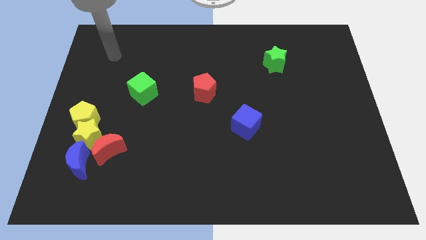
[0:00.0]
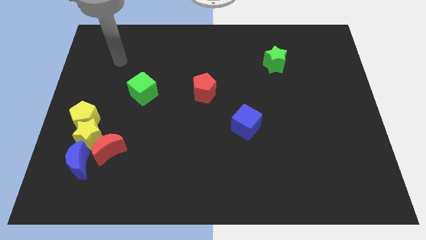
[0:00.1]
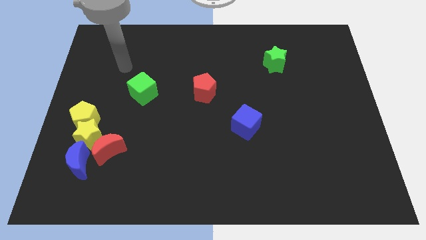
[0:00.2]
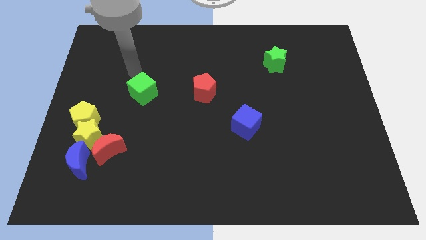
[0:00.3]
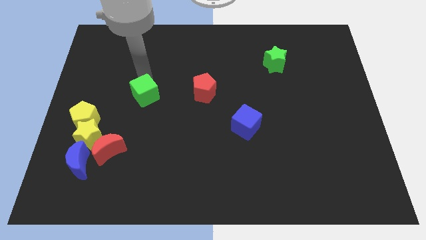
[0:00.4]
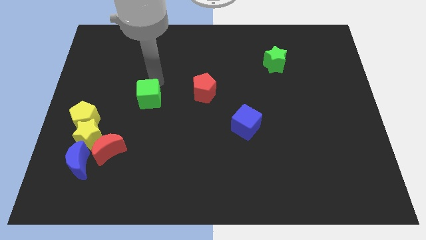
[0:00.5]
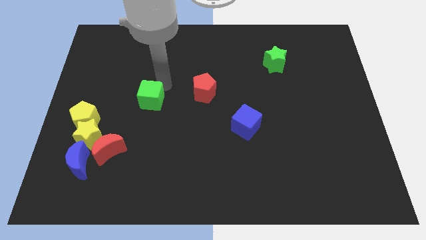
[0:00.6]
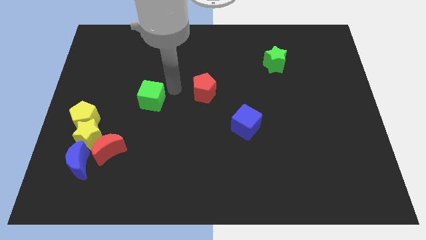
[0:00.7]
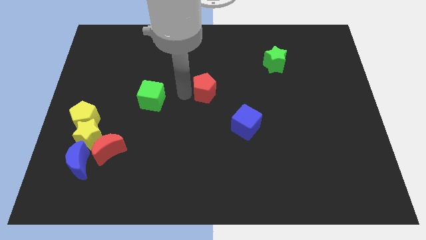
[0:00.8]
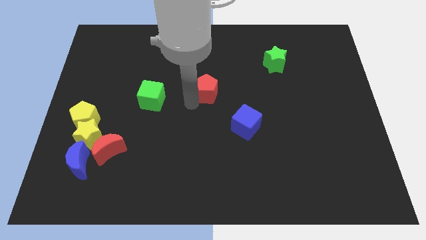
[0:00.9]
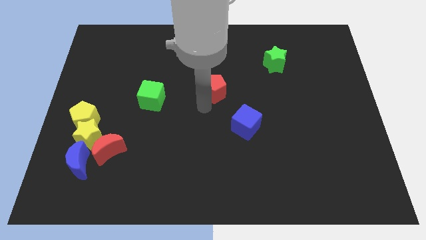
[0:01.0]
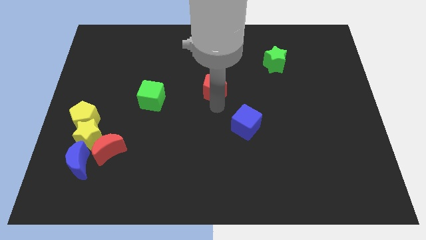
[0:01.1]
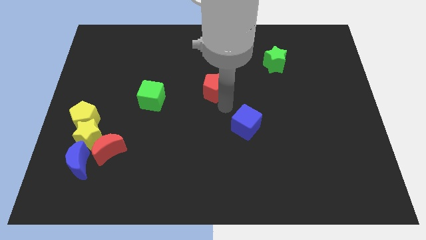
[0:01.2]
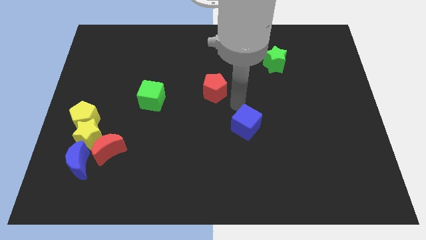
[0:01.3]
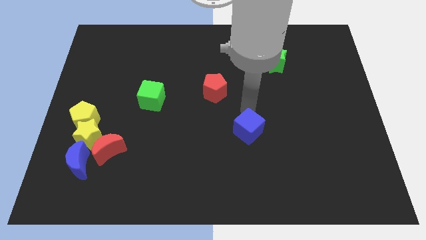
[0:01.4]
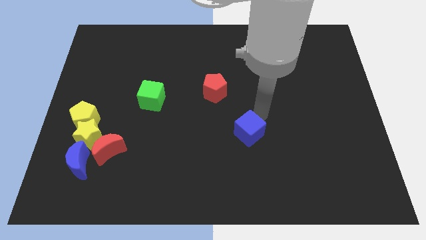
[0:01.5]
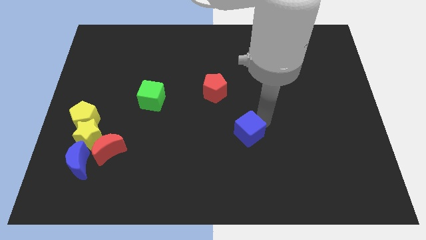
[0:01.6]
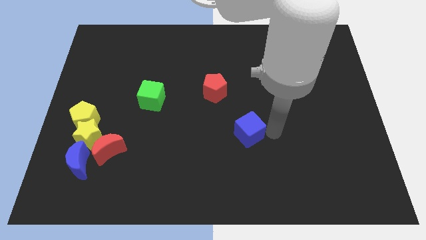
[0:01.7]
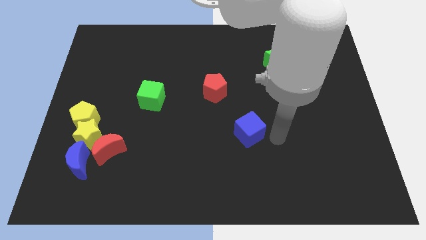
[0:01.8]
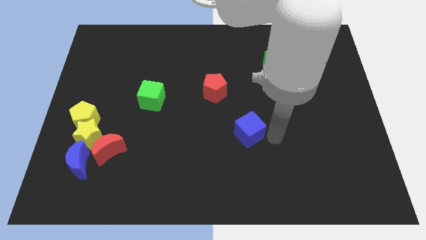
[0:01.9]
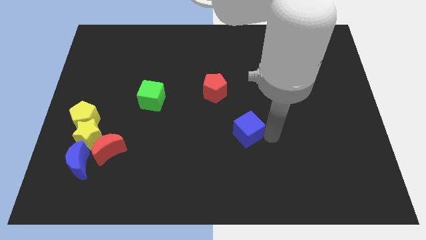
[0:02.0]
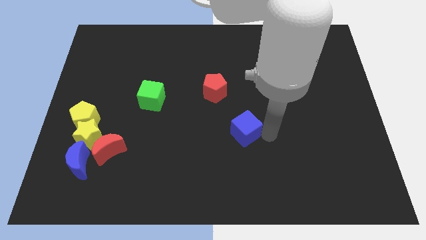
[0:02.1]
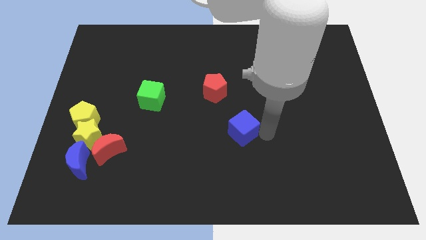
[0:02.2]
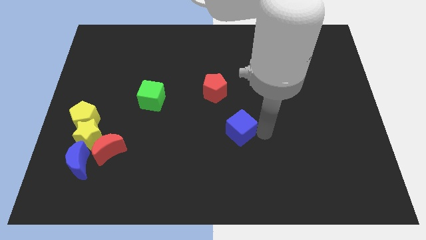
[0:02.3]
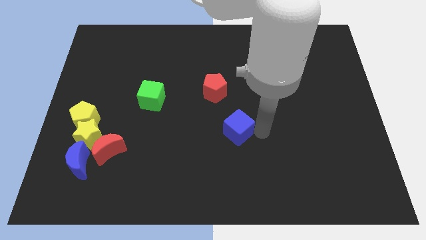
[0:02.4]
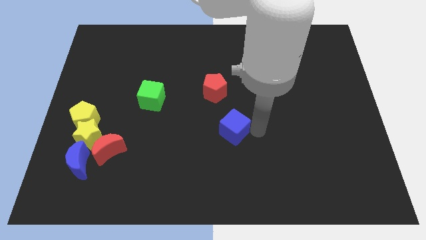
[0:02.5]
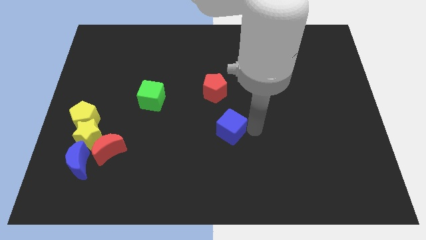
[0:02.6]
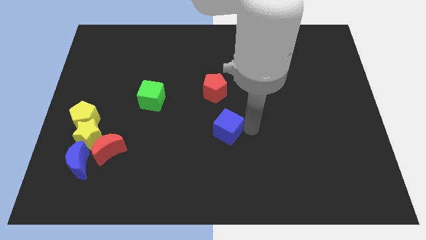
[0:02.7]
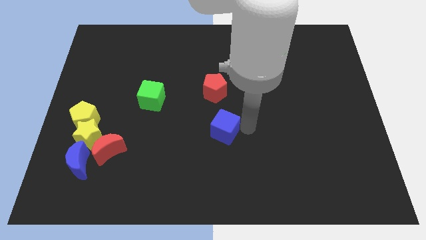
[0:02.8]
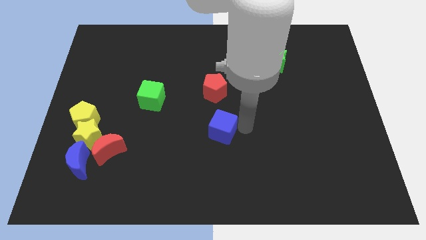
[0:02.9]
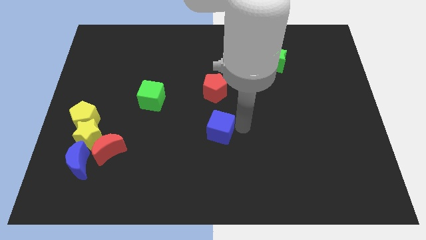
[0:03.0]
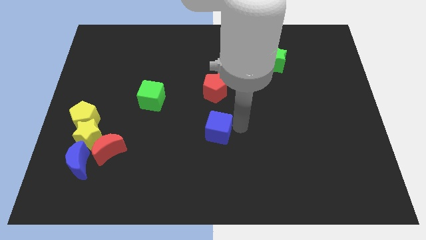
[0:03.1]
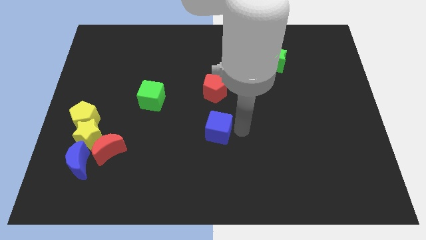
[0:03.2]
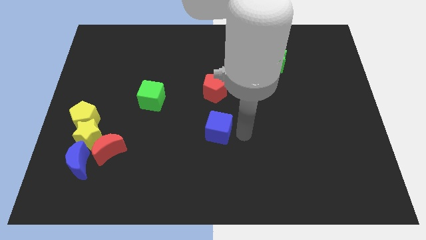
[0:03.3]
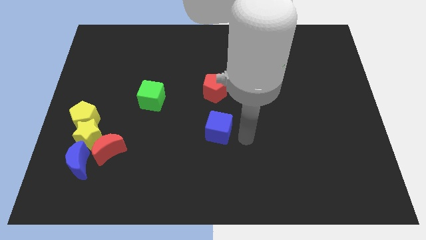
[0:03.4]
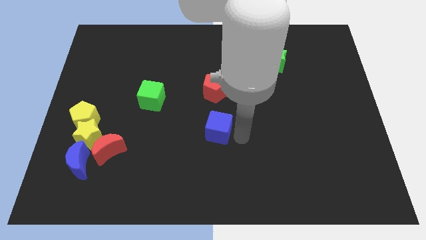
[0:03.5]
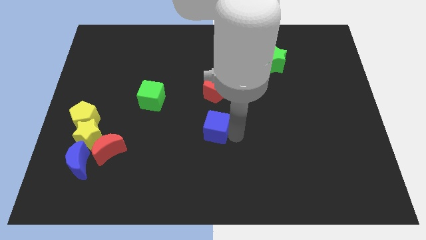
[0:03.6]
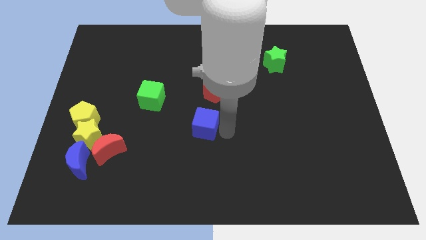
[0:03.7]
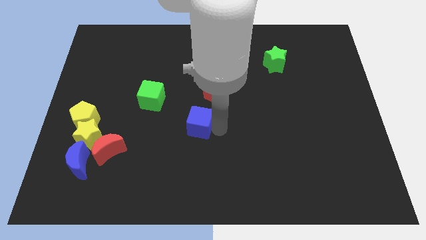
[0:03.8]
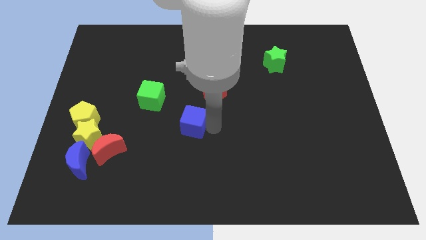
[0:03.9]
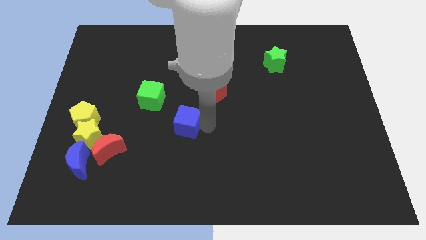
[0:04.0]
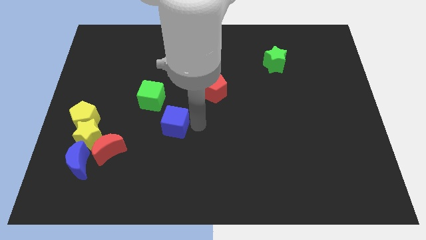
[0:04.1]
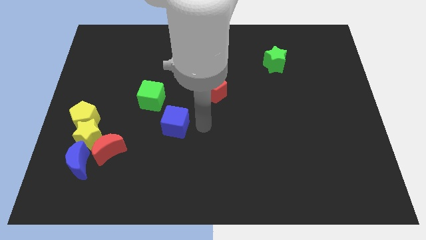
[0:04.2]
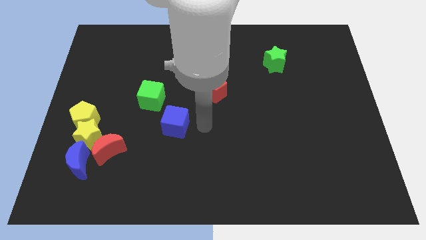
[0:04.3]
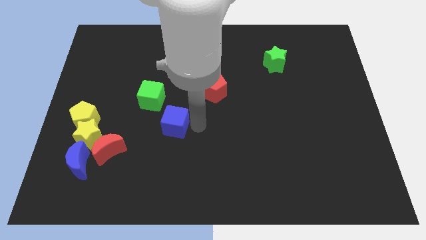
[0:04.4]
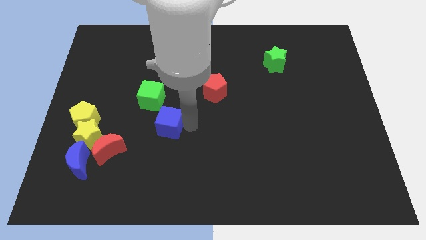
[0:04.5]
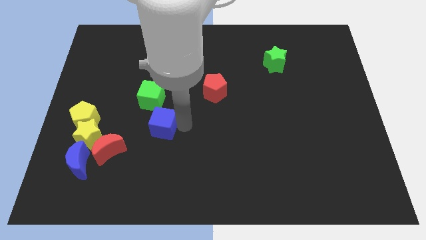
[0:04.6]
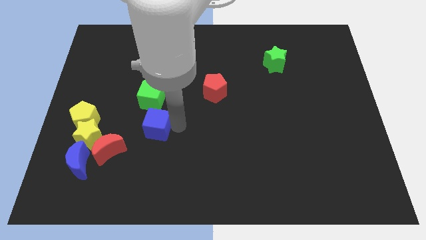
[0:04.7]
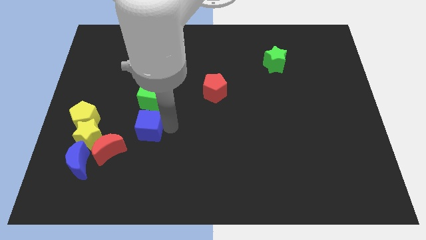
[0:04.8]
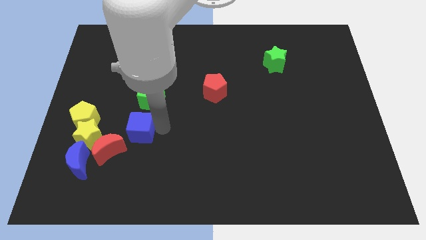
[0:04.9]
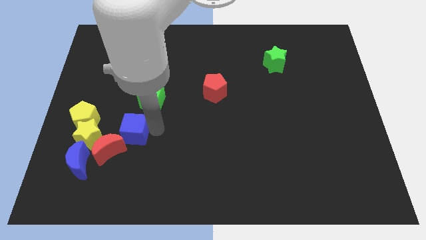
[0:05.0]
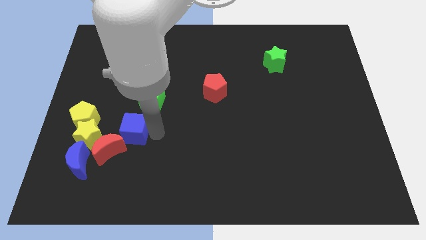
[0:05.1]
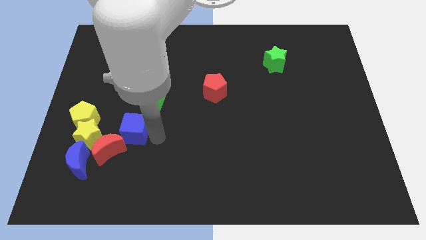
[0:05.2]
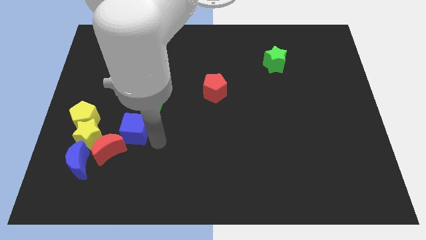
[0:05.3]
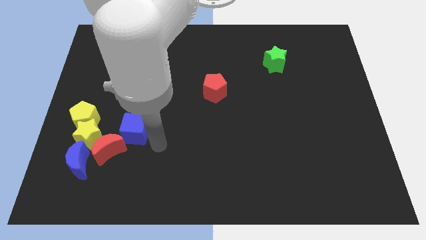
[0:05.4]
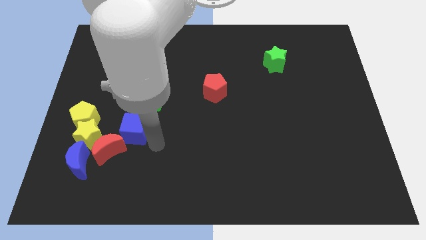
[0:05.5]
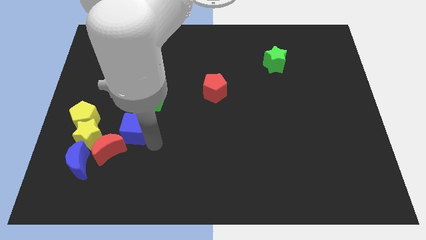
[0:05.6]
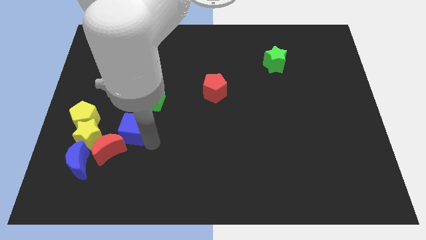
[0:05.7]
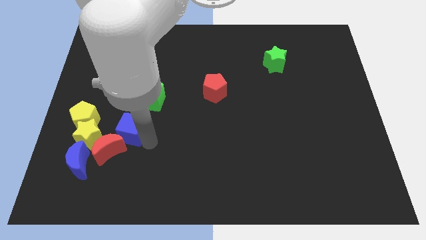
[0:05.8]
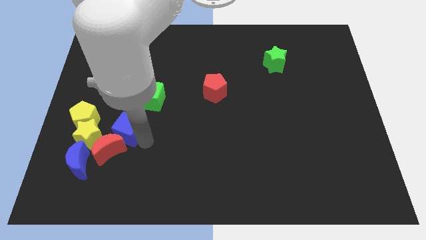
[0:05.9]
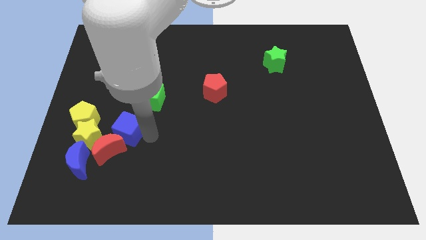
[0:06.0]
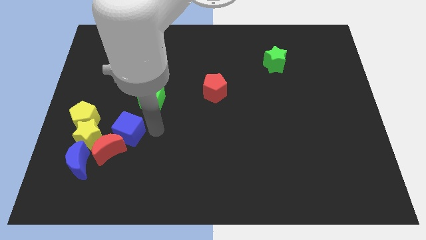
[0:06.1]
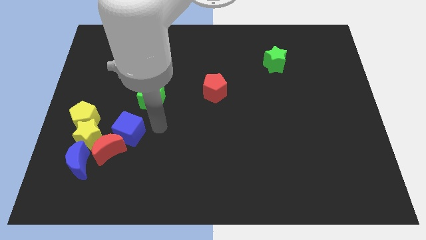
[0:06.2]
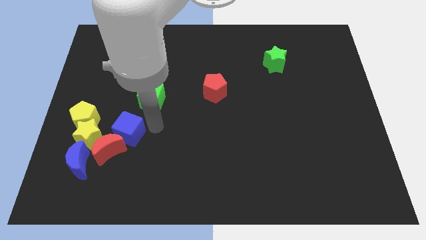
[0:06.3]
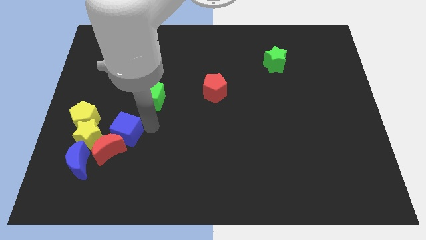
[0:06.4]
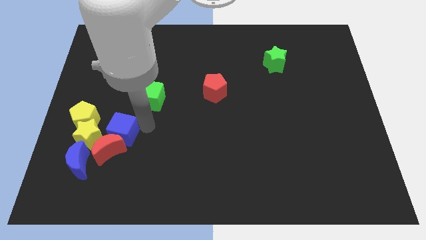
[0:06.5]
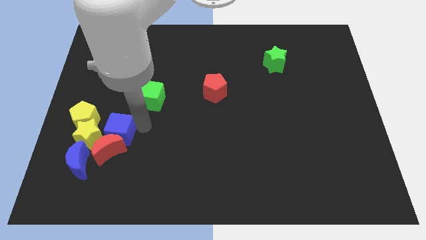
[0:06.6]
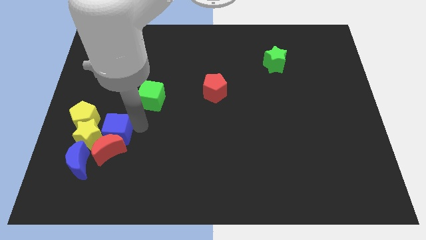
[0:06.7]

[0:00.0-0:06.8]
slide the blue cube close to the yellow star

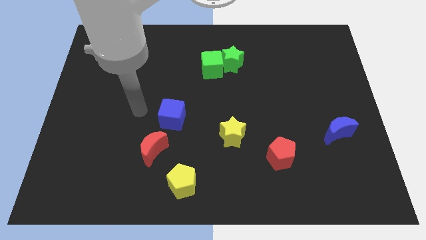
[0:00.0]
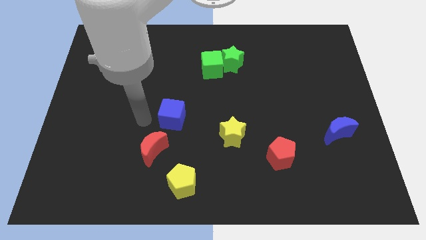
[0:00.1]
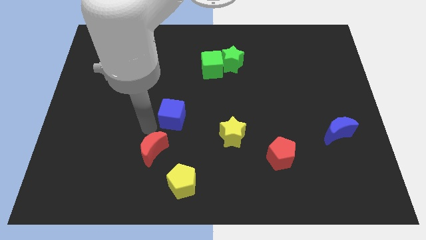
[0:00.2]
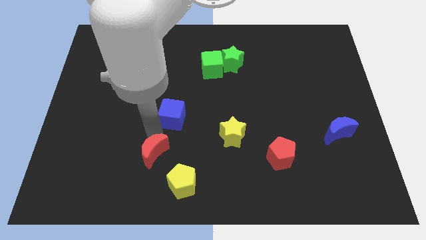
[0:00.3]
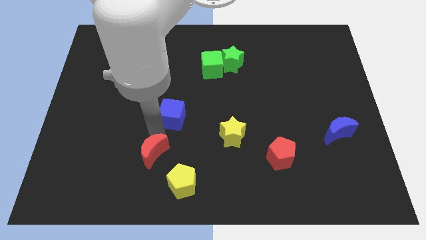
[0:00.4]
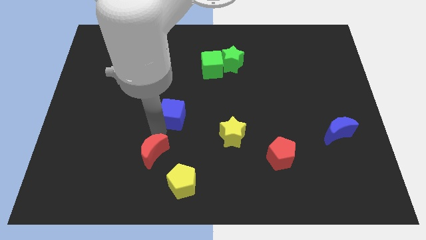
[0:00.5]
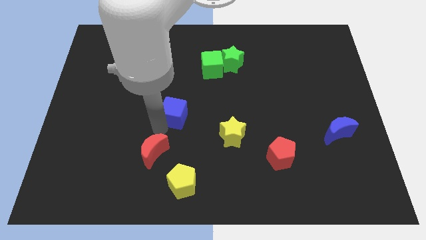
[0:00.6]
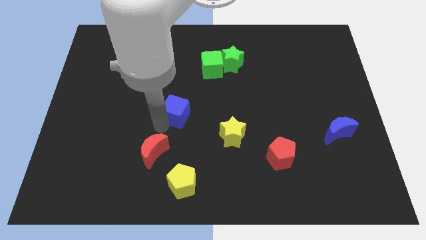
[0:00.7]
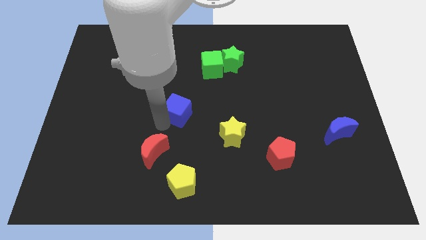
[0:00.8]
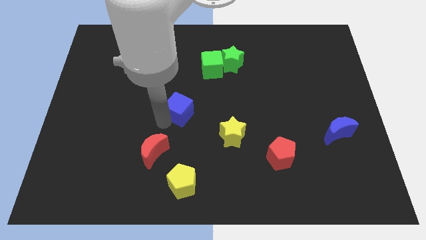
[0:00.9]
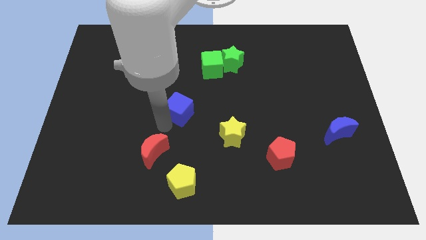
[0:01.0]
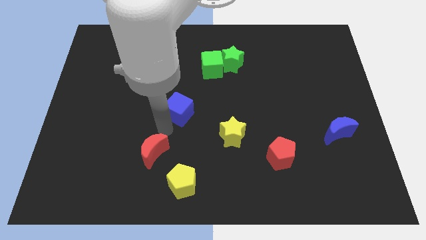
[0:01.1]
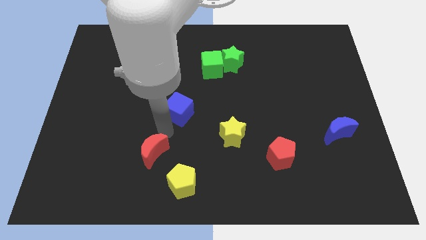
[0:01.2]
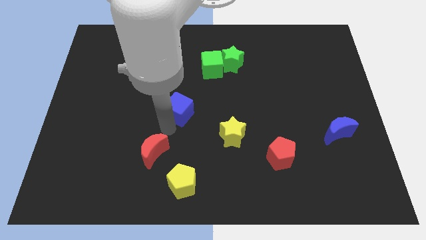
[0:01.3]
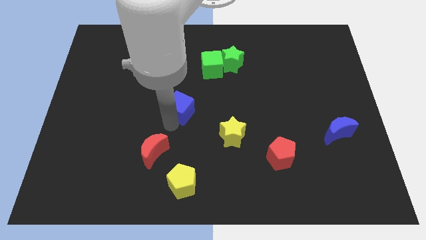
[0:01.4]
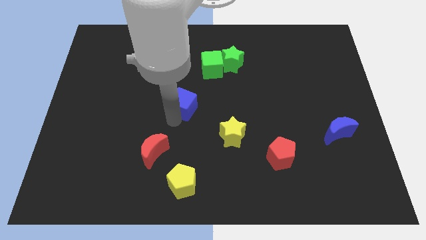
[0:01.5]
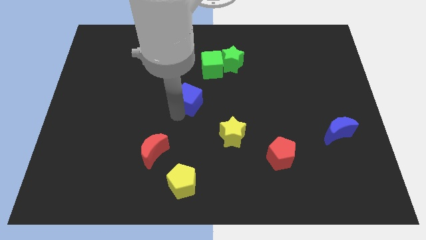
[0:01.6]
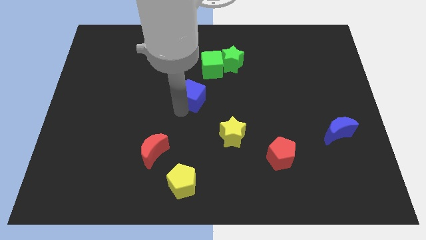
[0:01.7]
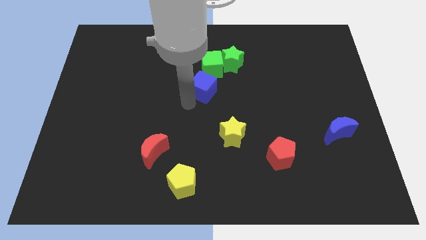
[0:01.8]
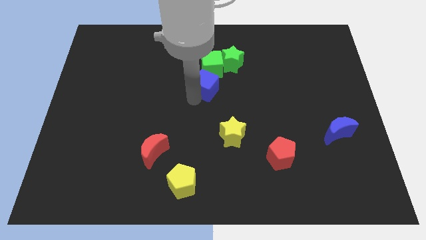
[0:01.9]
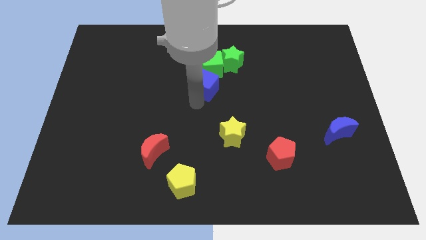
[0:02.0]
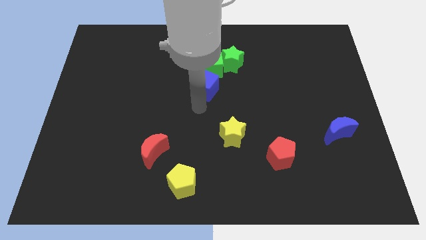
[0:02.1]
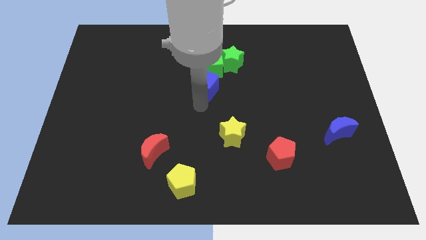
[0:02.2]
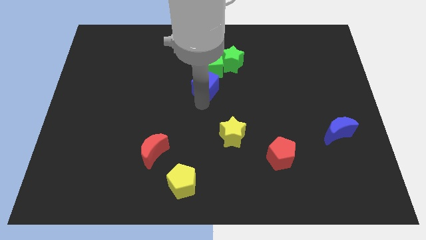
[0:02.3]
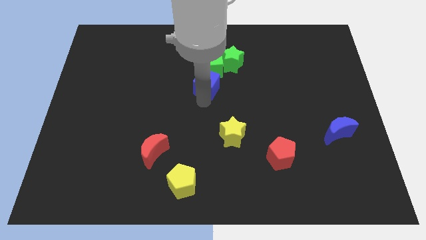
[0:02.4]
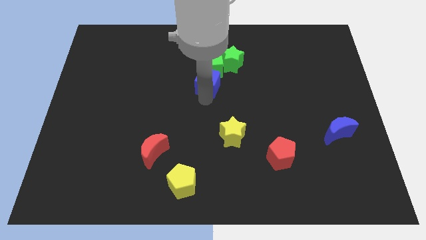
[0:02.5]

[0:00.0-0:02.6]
push the blue cube next to the green cube
